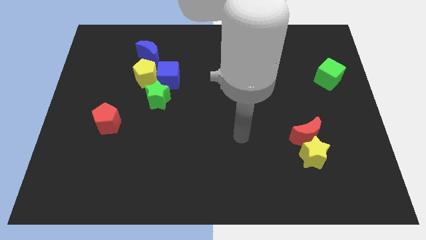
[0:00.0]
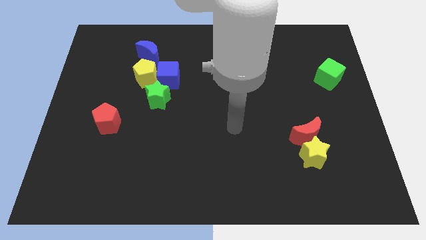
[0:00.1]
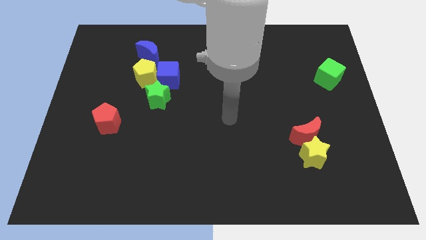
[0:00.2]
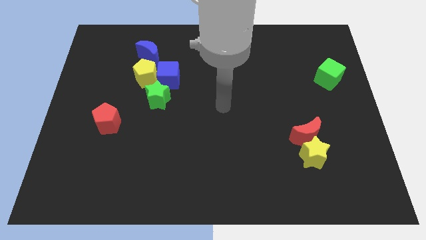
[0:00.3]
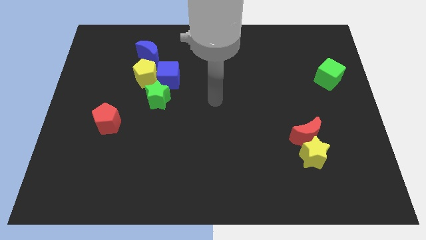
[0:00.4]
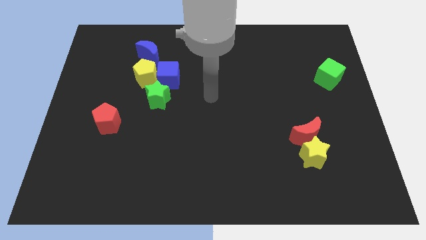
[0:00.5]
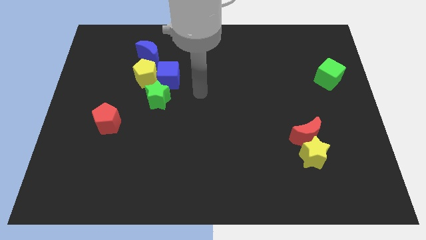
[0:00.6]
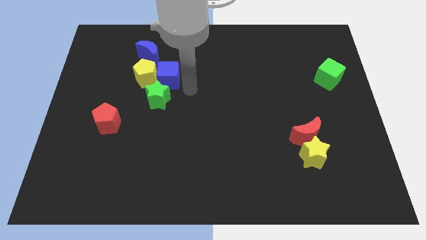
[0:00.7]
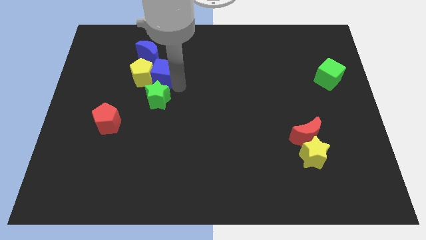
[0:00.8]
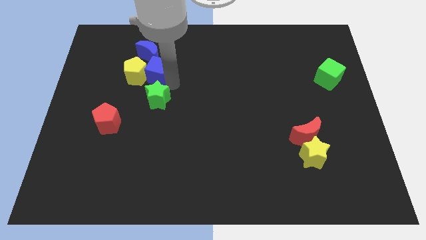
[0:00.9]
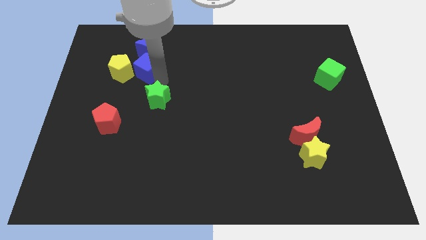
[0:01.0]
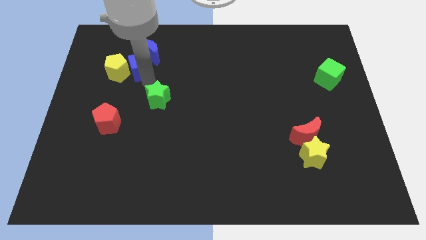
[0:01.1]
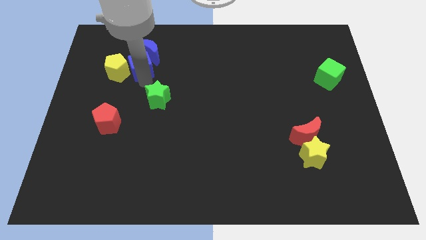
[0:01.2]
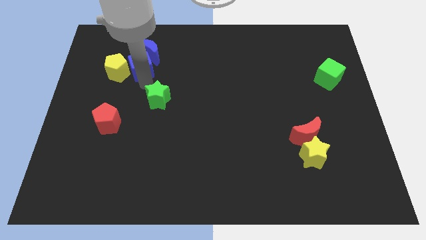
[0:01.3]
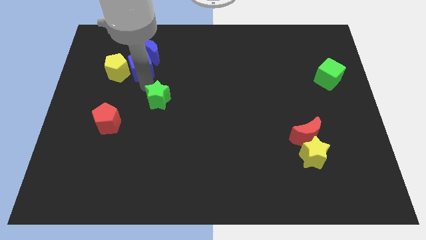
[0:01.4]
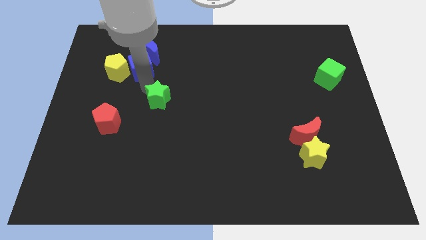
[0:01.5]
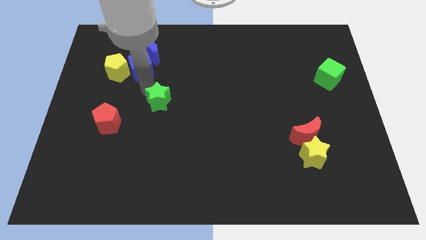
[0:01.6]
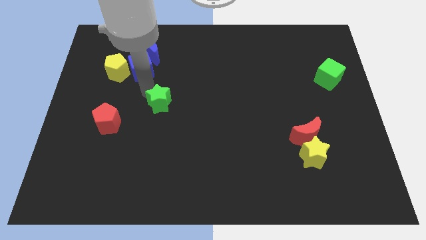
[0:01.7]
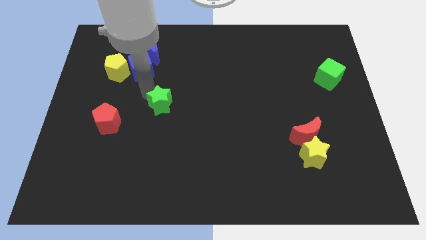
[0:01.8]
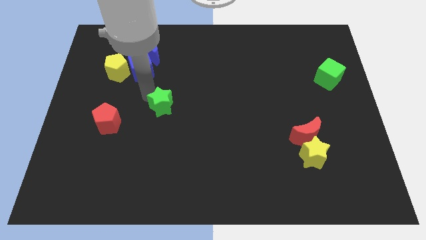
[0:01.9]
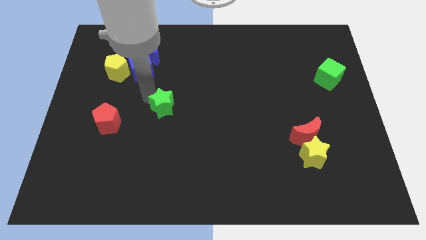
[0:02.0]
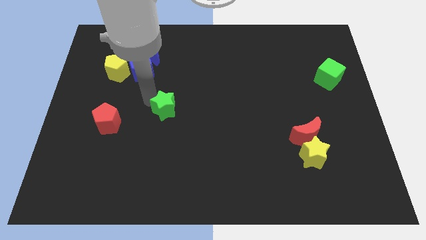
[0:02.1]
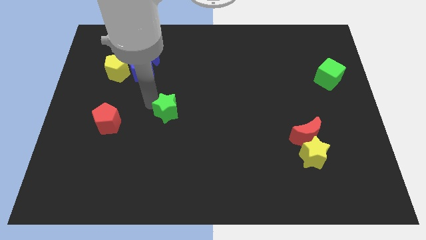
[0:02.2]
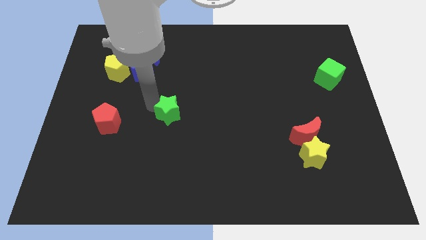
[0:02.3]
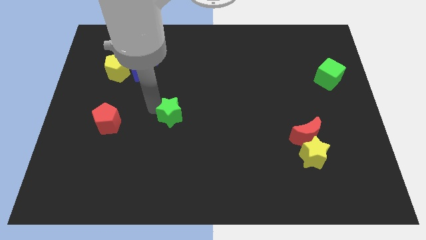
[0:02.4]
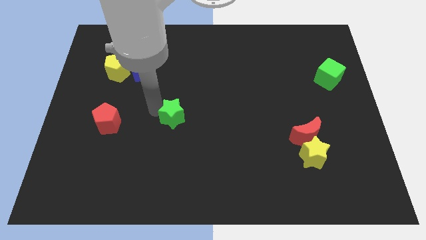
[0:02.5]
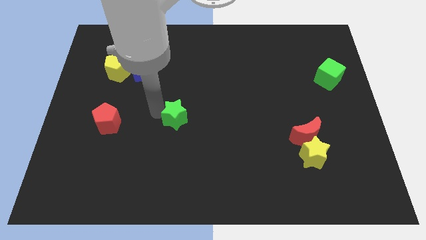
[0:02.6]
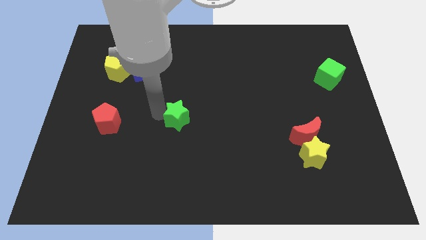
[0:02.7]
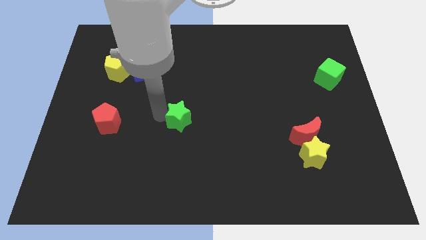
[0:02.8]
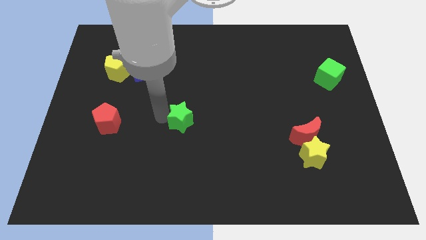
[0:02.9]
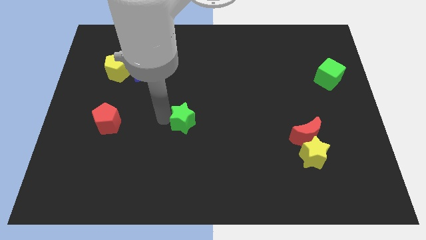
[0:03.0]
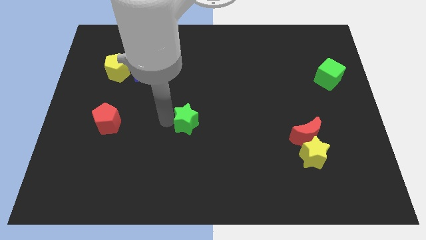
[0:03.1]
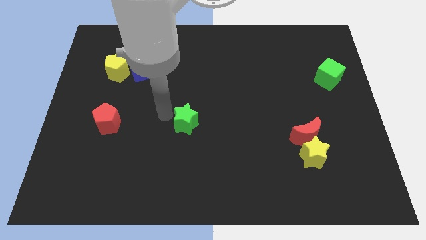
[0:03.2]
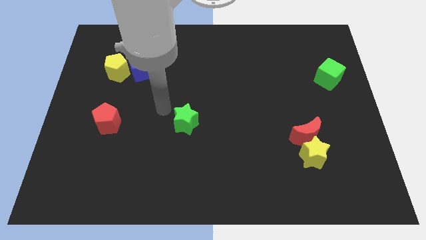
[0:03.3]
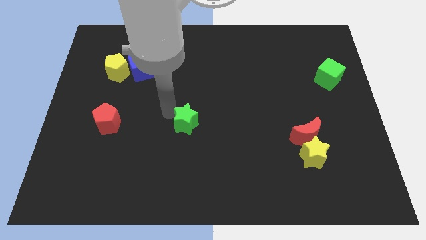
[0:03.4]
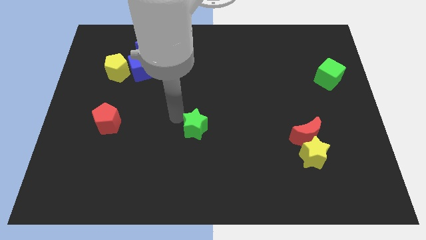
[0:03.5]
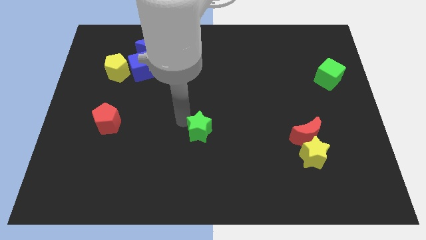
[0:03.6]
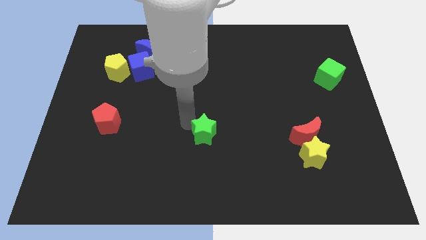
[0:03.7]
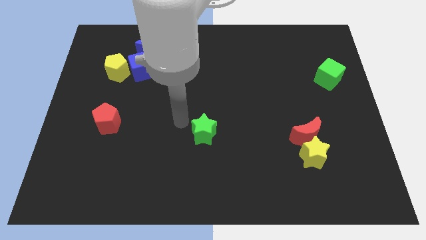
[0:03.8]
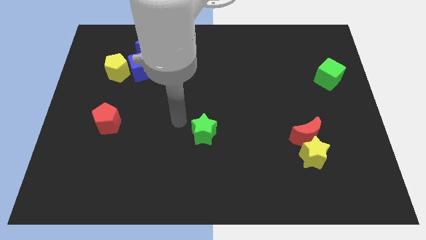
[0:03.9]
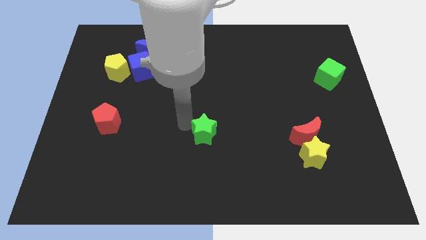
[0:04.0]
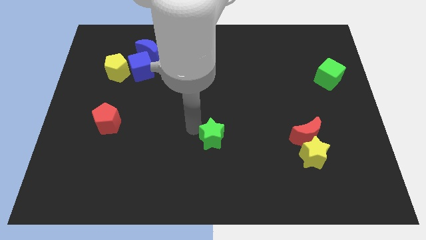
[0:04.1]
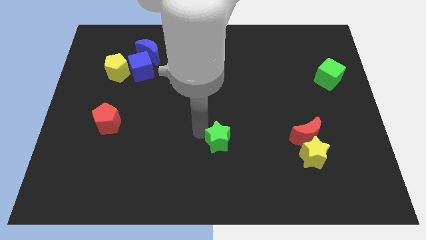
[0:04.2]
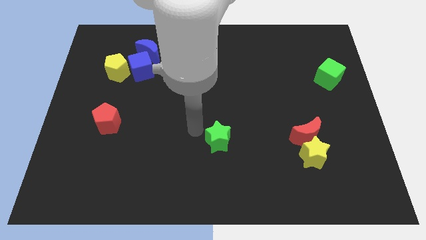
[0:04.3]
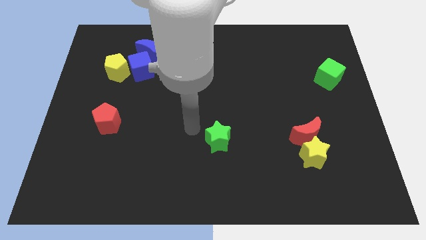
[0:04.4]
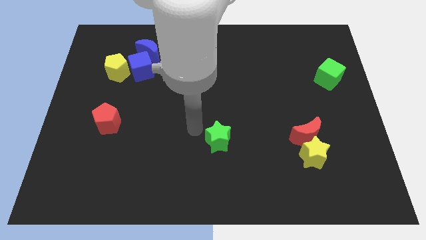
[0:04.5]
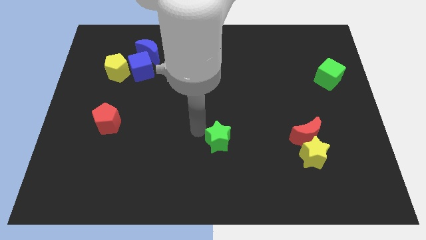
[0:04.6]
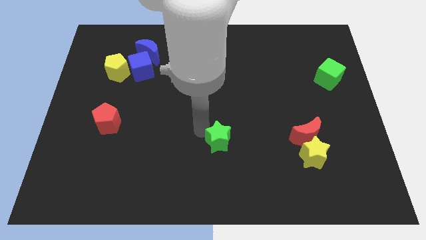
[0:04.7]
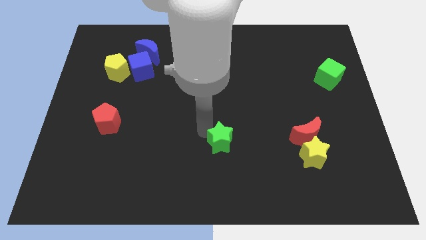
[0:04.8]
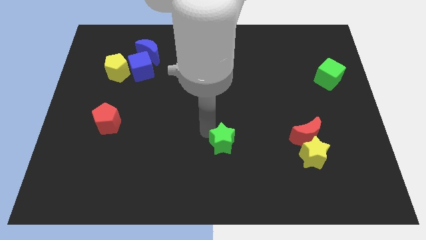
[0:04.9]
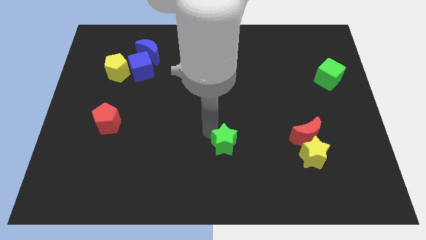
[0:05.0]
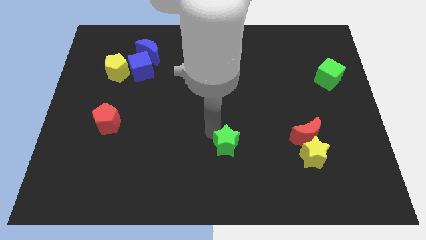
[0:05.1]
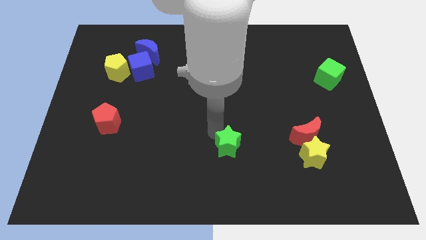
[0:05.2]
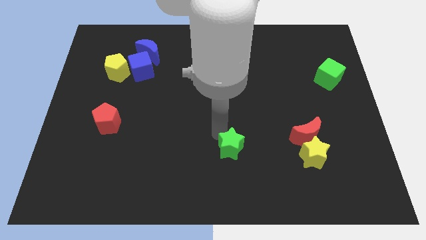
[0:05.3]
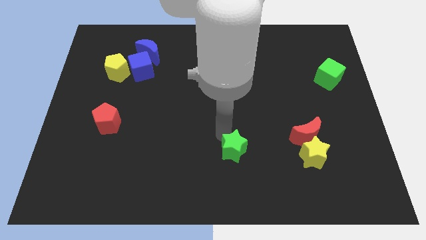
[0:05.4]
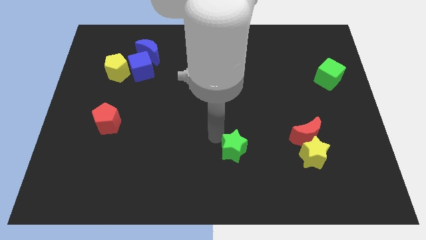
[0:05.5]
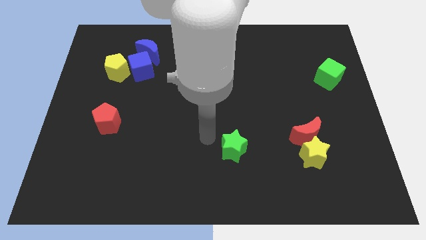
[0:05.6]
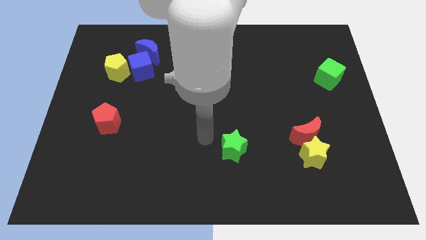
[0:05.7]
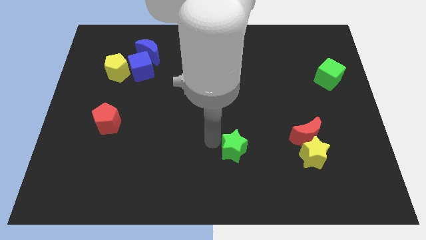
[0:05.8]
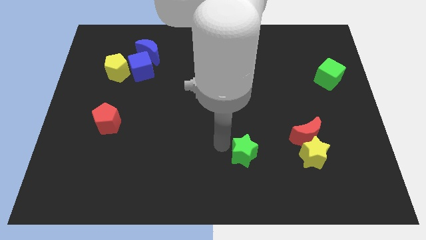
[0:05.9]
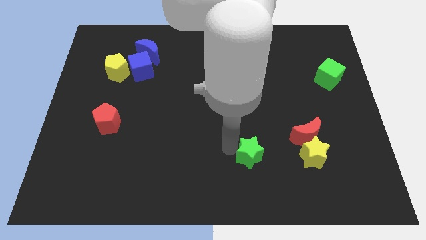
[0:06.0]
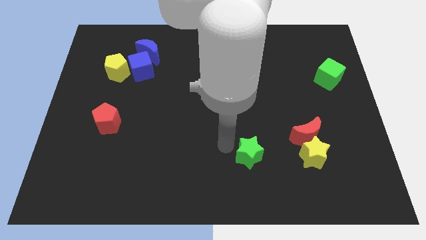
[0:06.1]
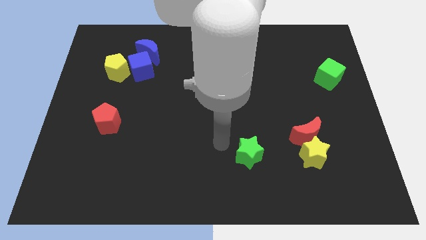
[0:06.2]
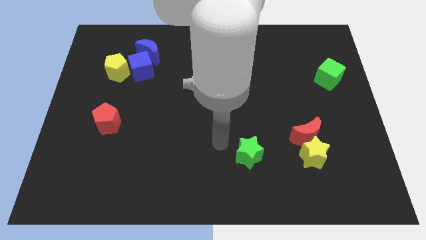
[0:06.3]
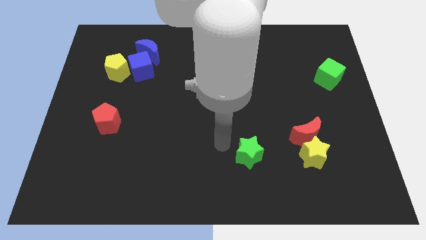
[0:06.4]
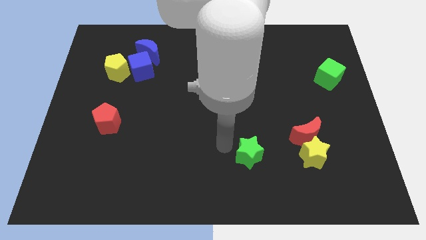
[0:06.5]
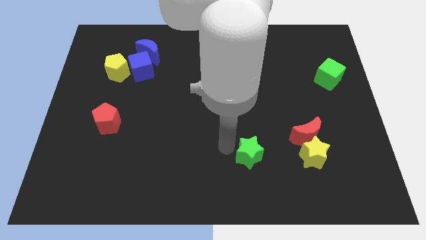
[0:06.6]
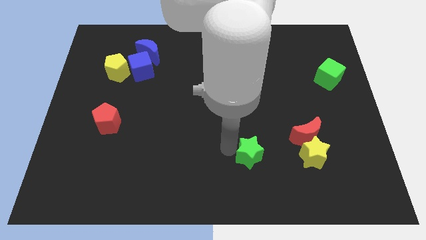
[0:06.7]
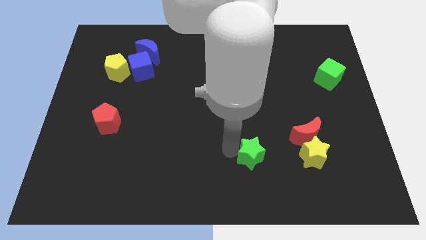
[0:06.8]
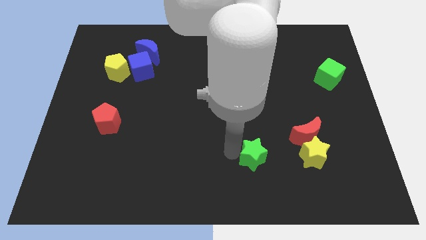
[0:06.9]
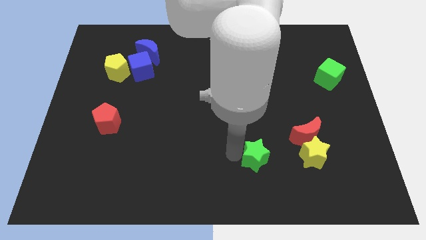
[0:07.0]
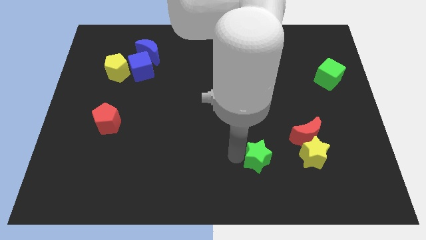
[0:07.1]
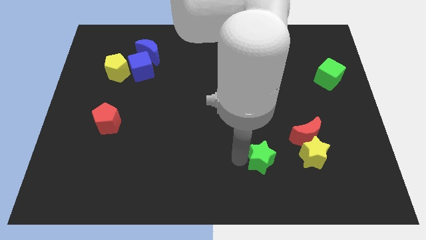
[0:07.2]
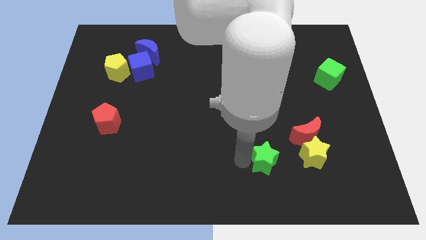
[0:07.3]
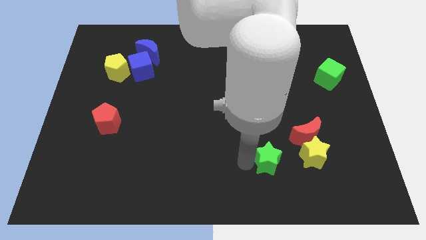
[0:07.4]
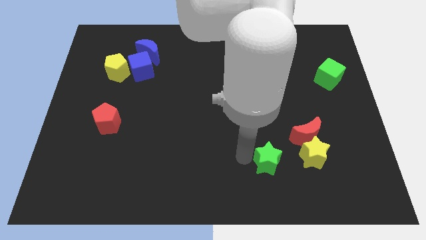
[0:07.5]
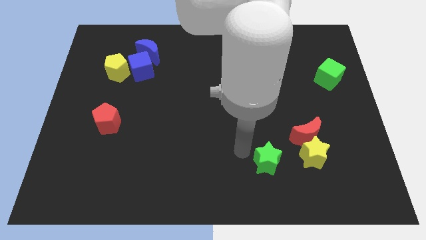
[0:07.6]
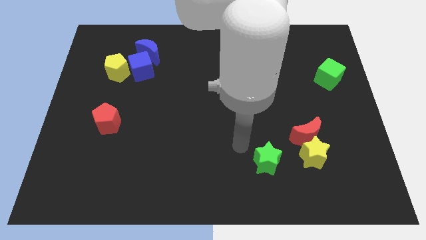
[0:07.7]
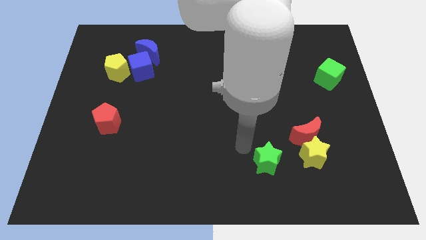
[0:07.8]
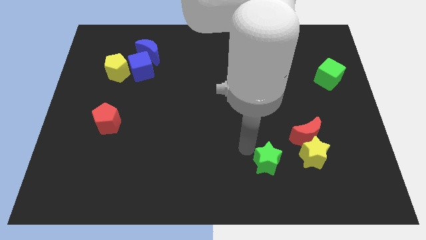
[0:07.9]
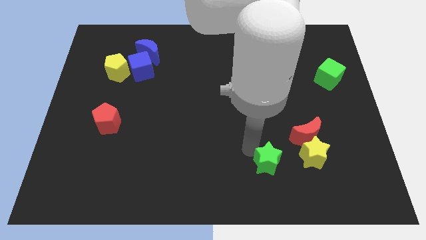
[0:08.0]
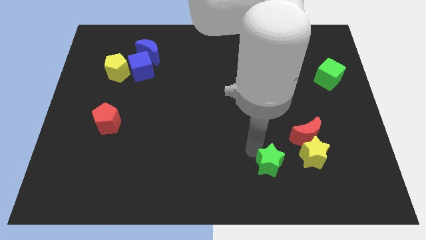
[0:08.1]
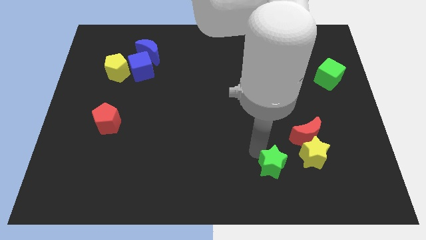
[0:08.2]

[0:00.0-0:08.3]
put the green star to the bottom left side of the yellow star
